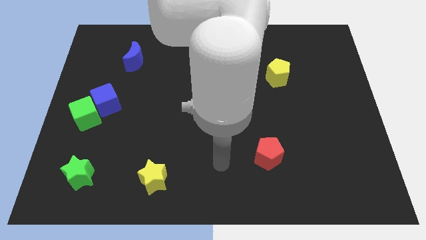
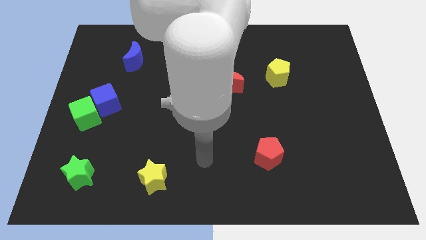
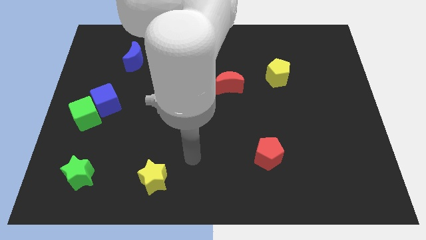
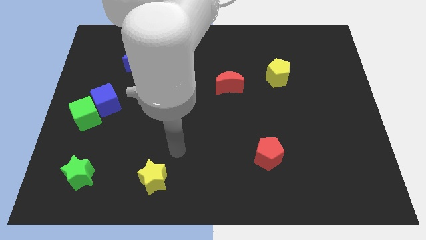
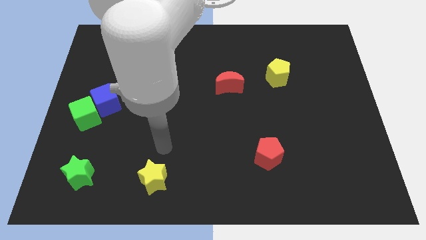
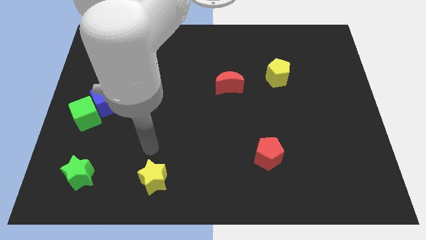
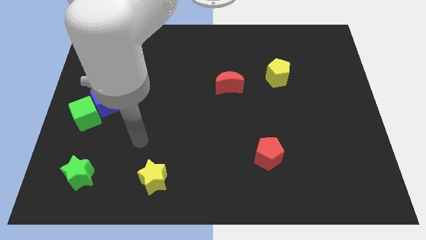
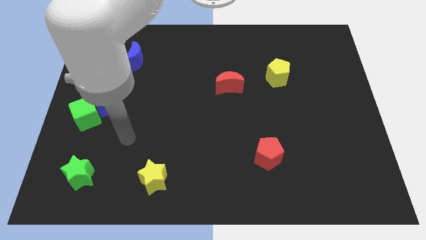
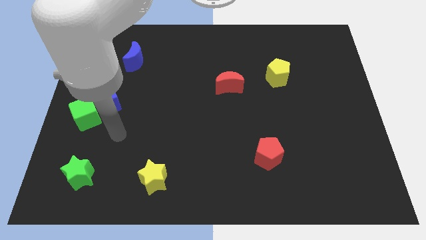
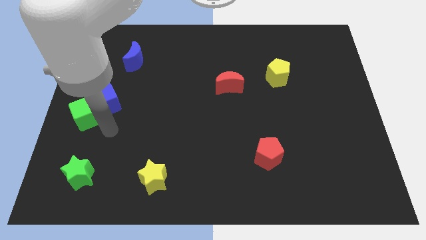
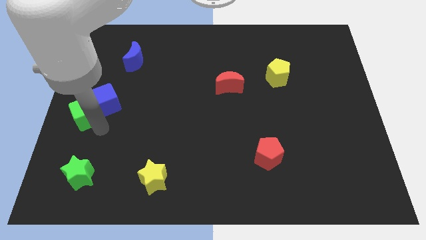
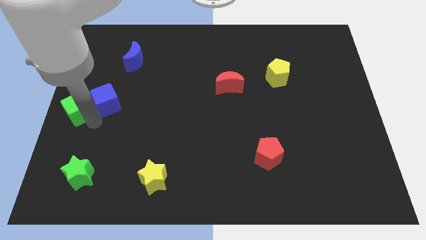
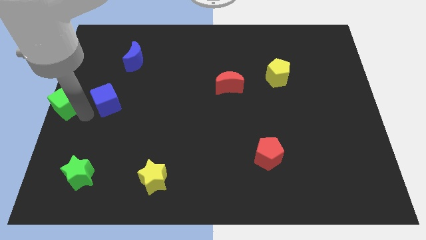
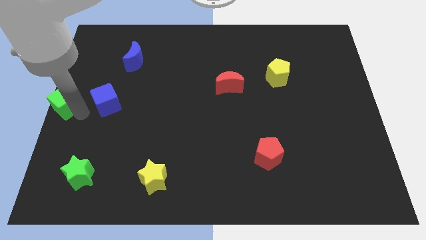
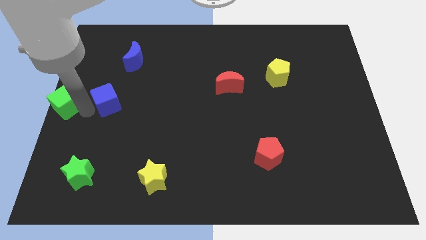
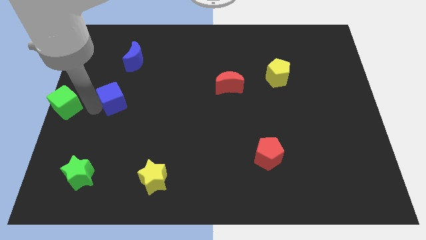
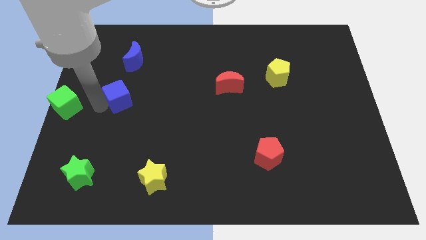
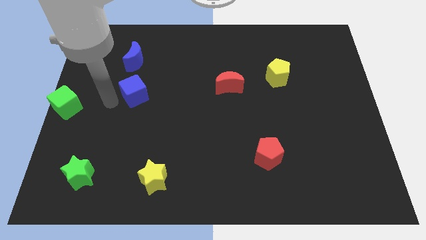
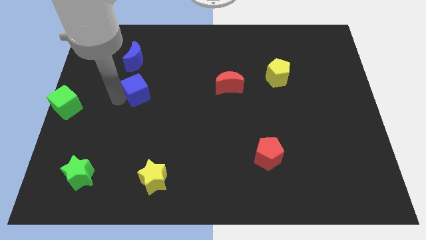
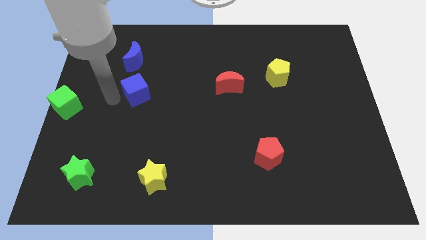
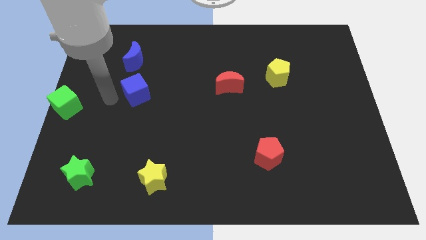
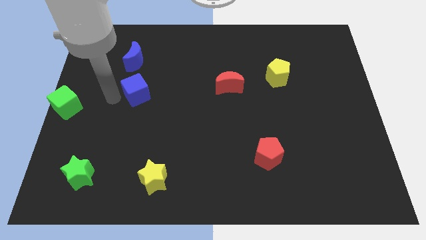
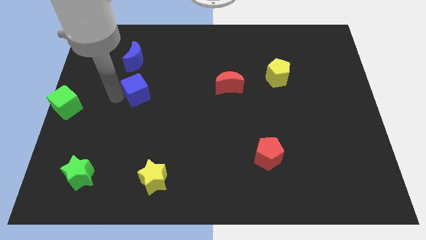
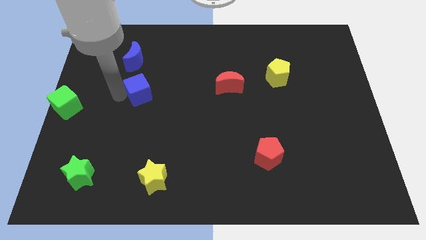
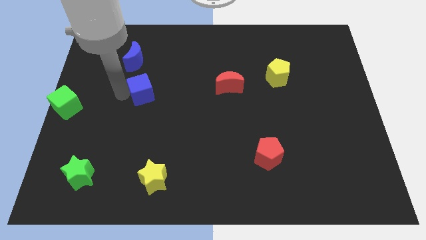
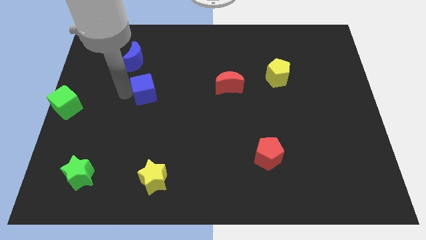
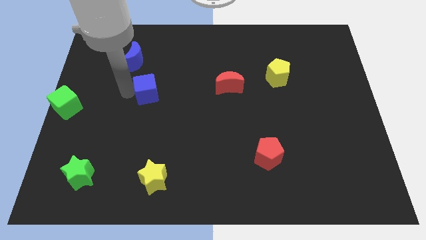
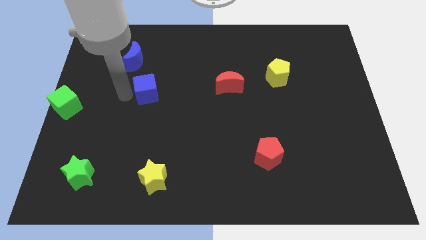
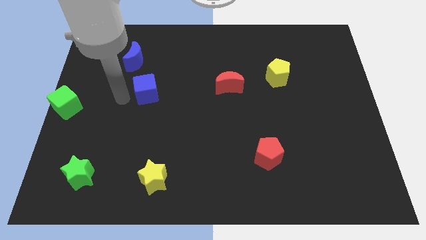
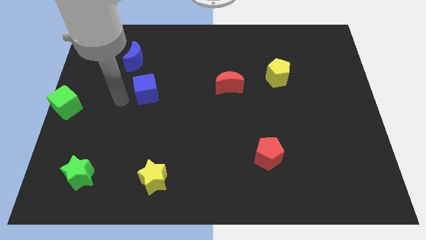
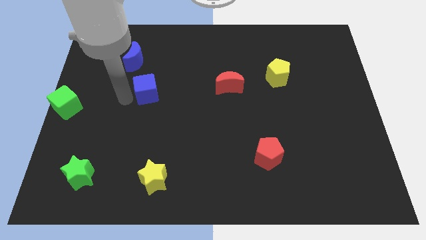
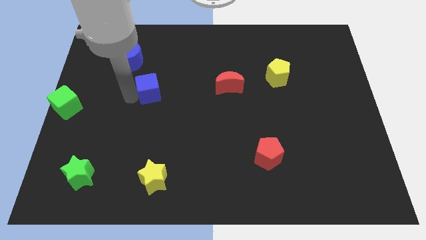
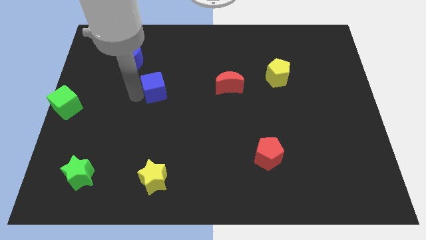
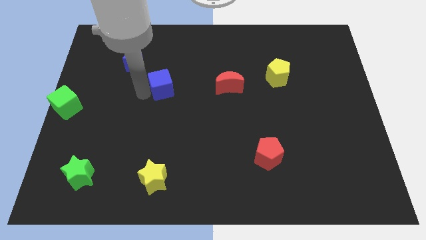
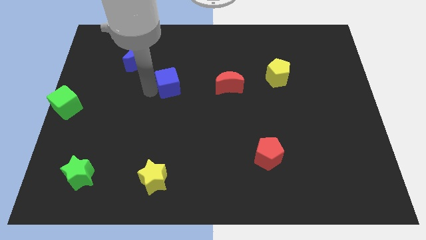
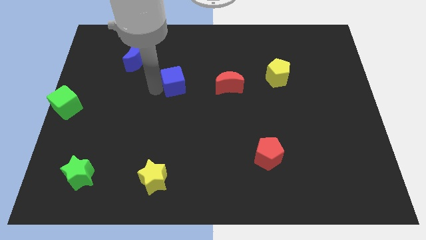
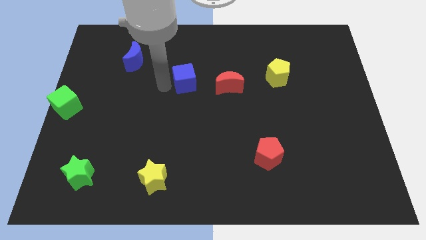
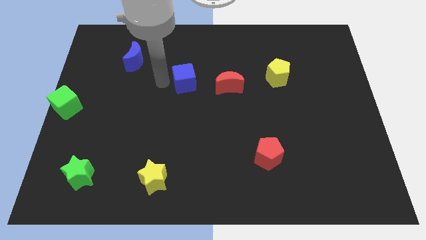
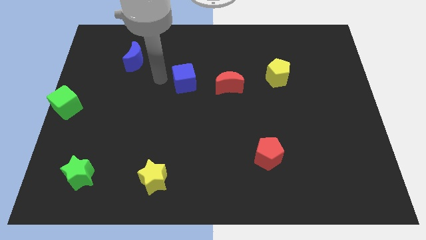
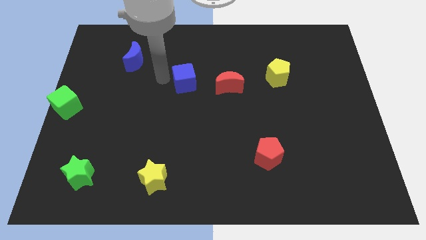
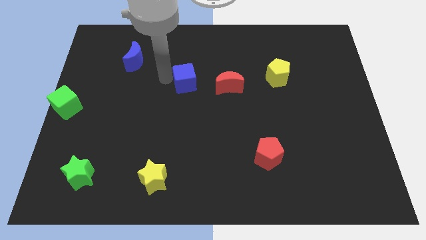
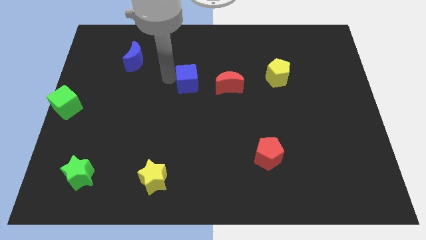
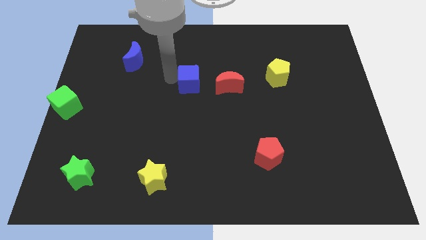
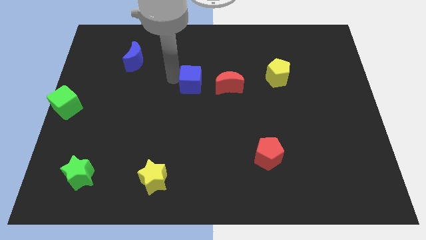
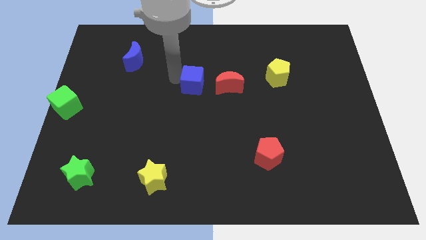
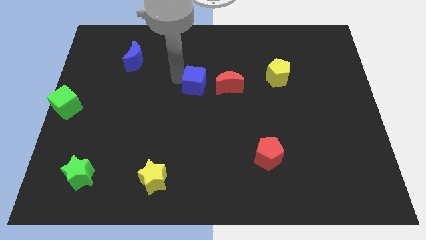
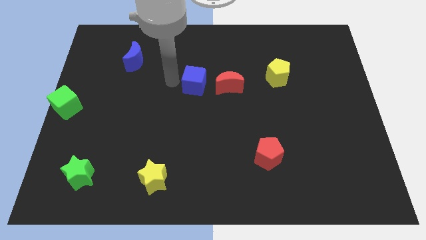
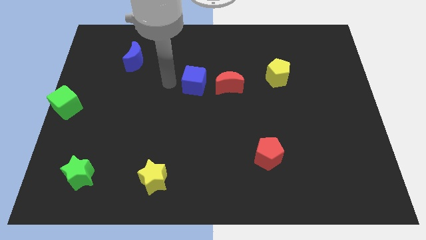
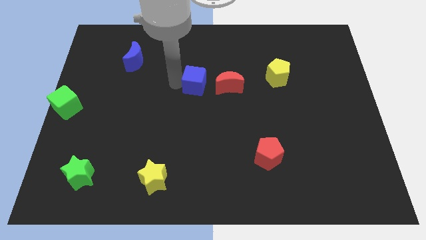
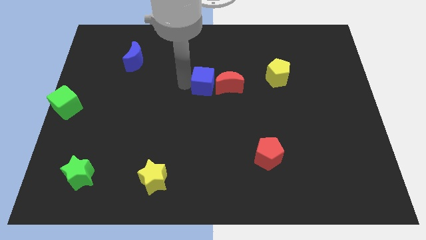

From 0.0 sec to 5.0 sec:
move the blue cube towards the red moon

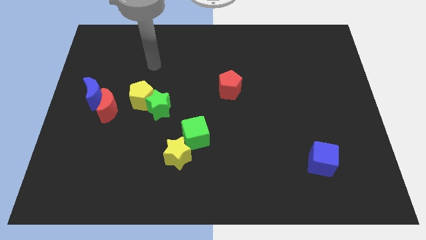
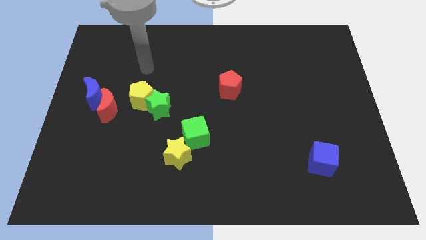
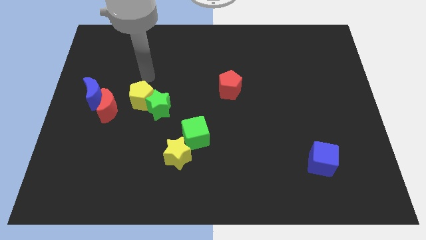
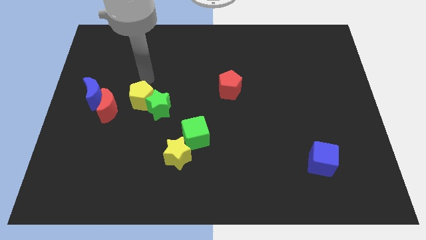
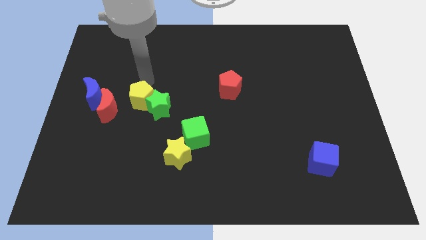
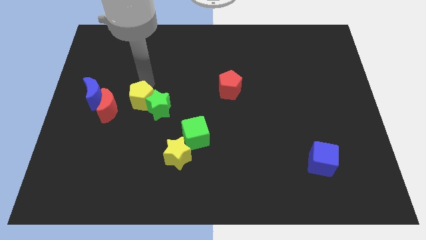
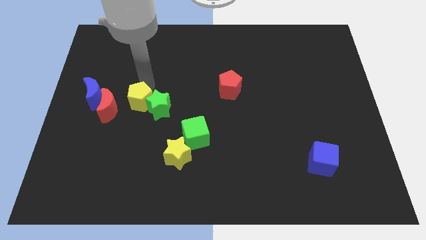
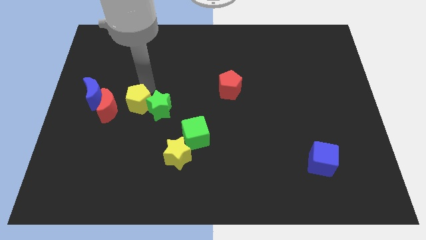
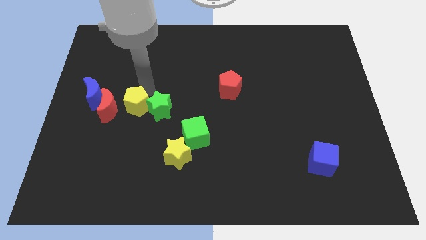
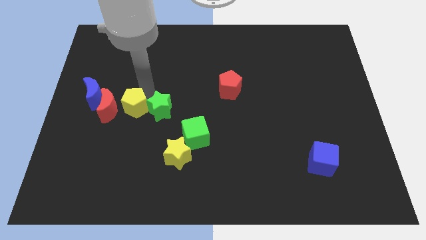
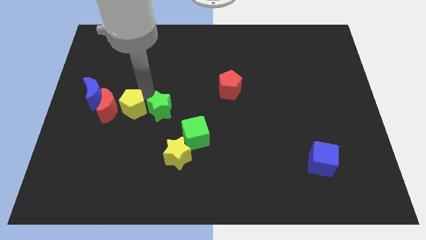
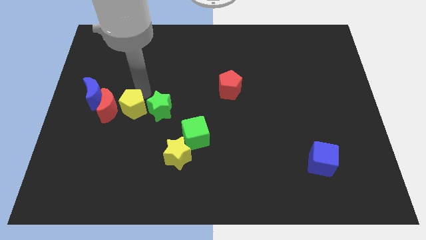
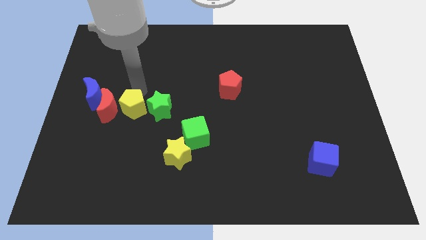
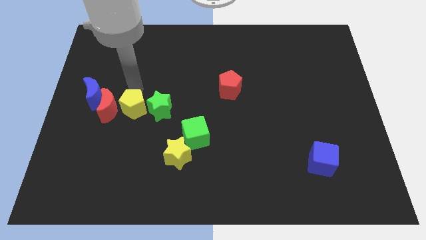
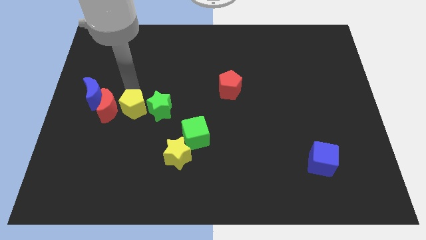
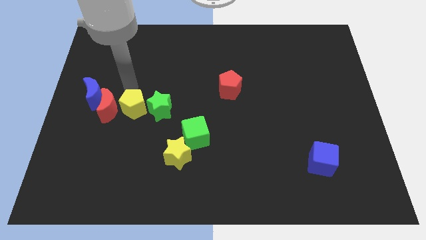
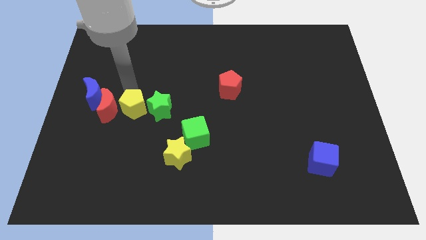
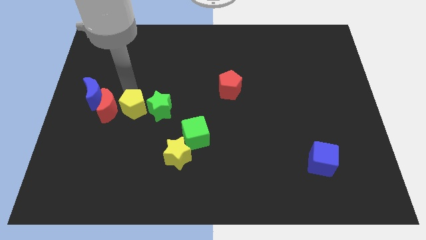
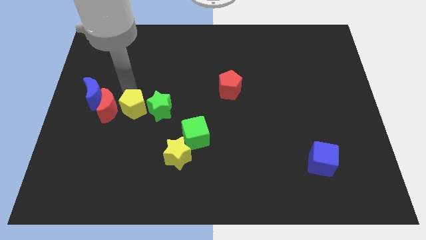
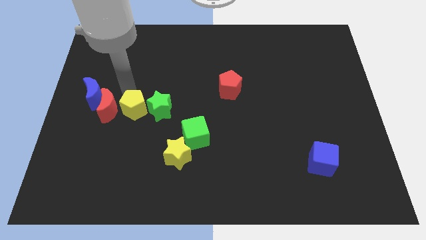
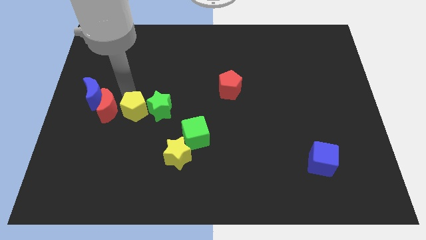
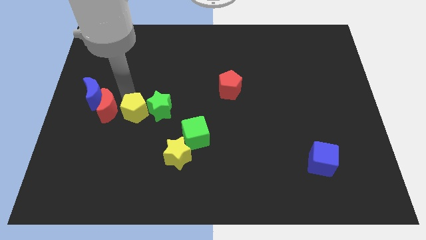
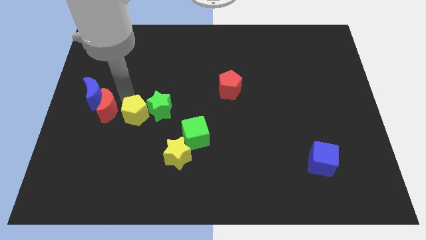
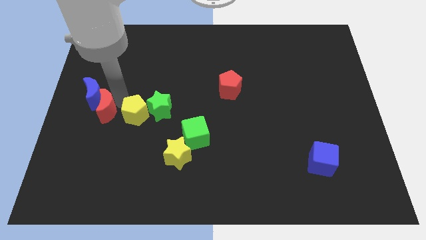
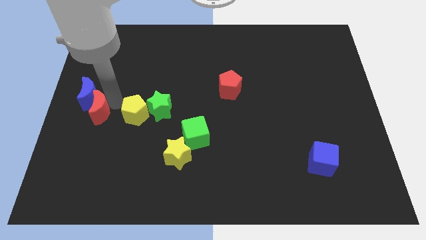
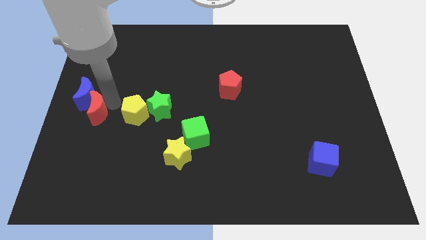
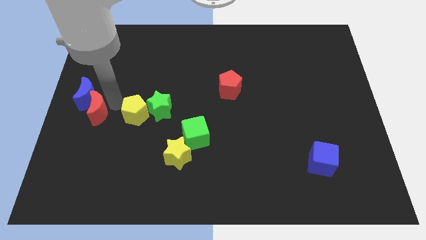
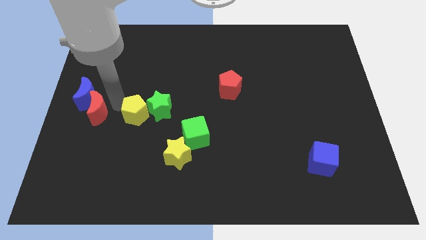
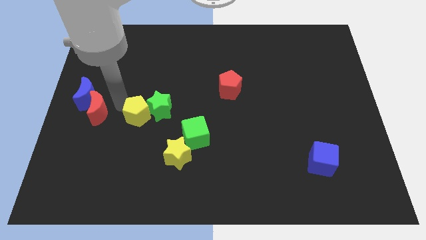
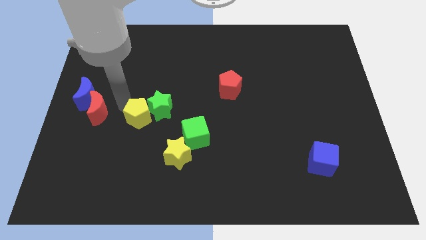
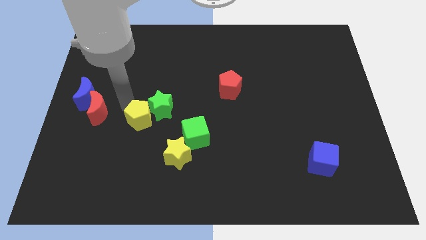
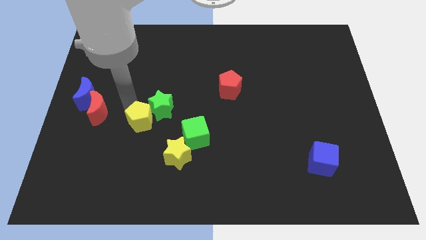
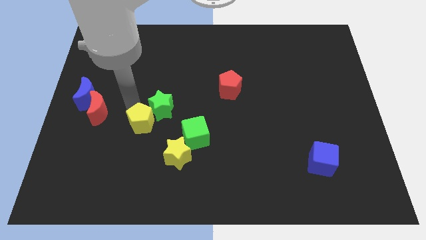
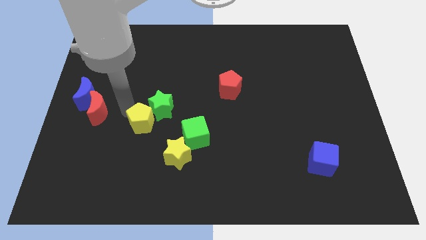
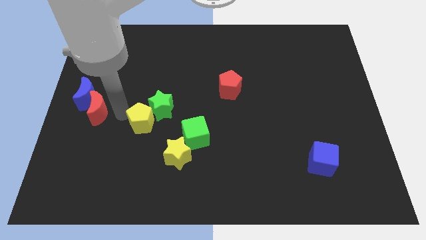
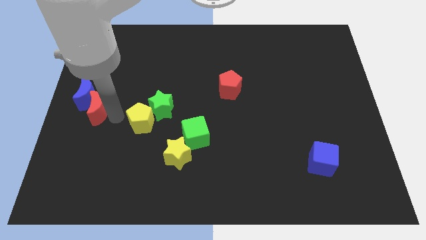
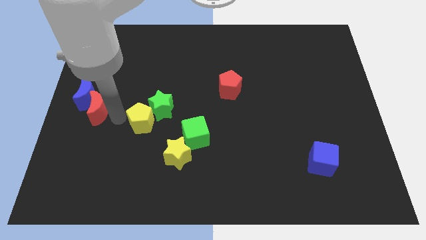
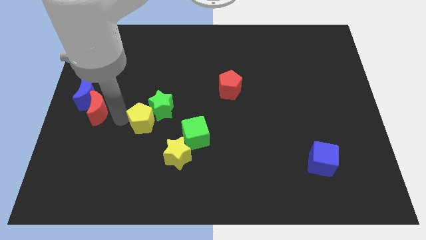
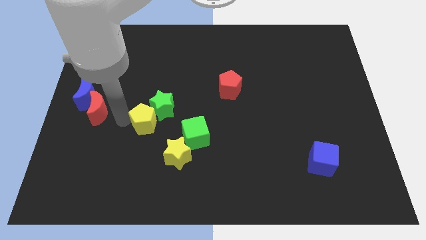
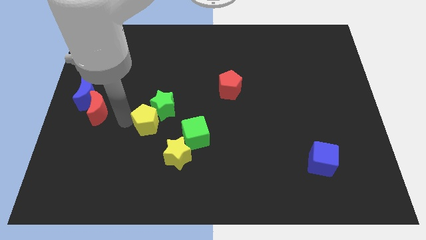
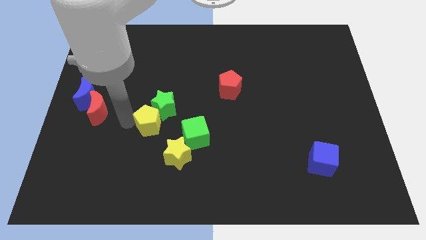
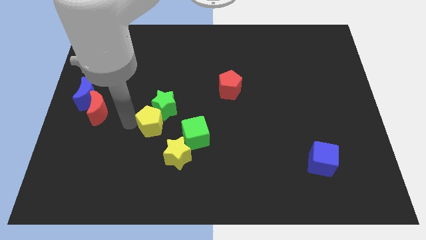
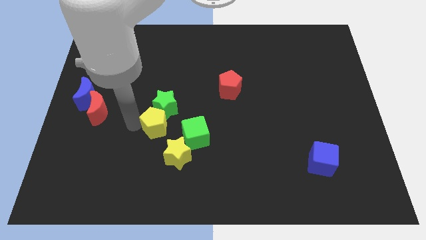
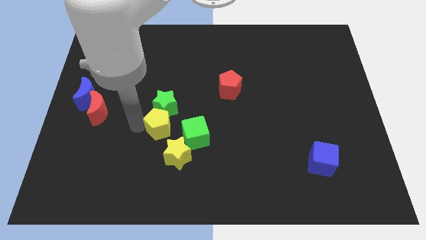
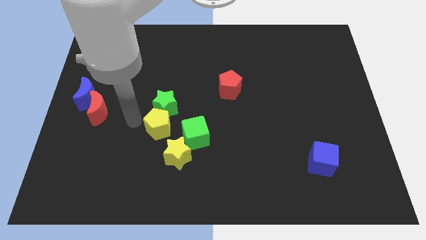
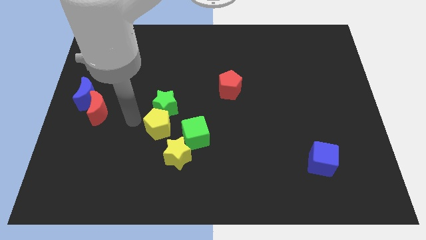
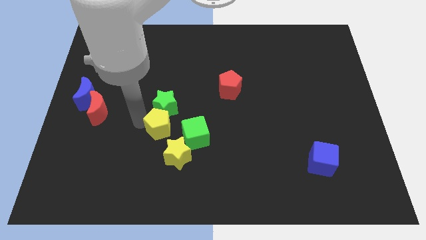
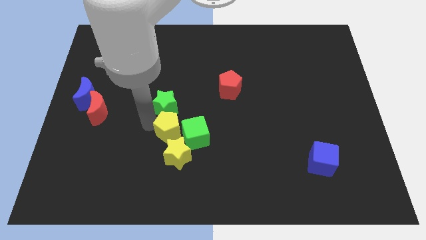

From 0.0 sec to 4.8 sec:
push the yellow pentagon to the green cube
